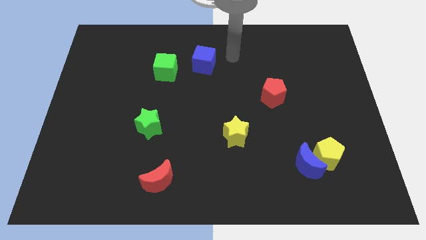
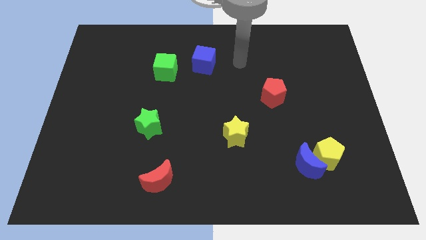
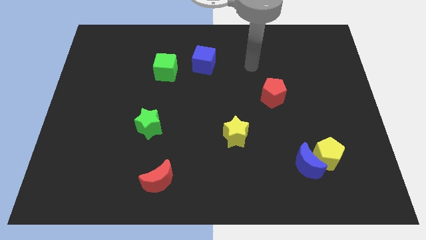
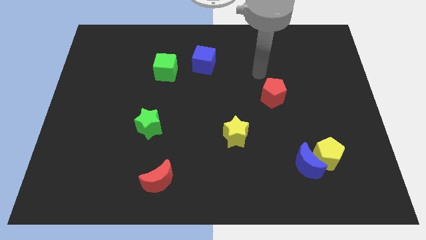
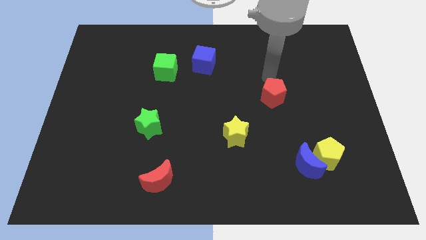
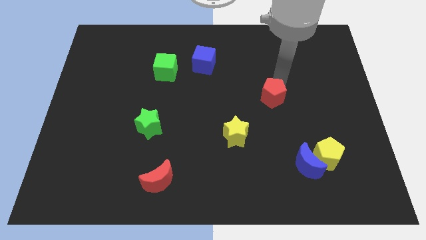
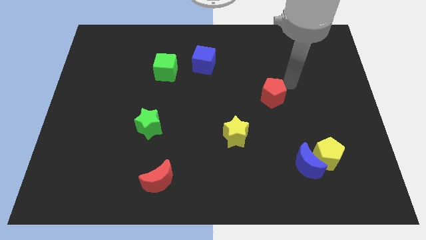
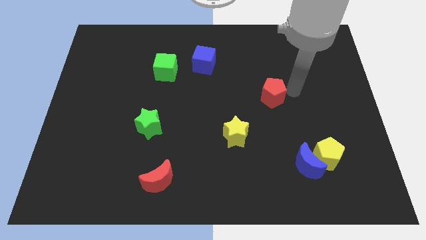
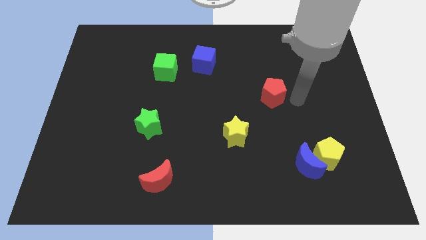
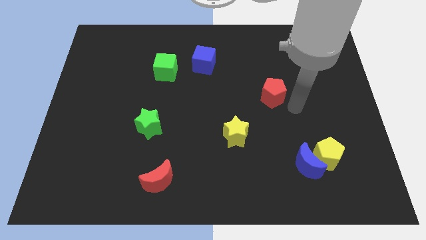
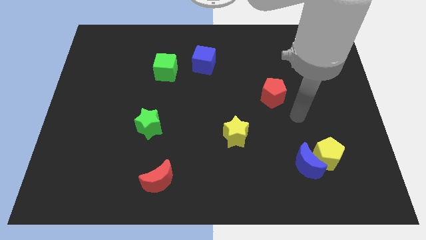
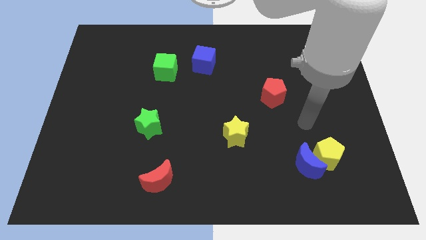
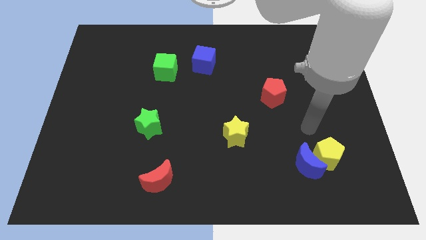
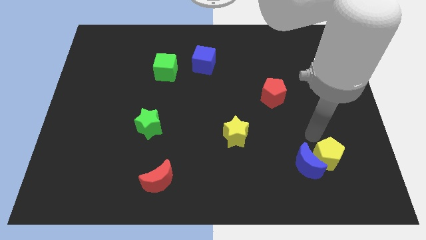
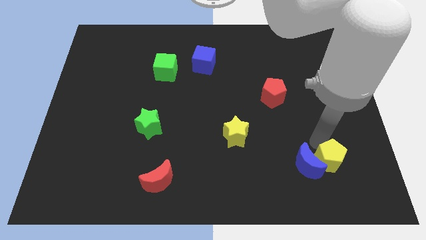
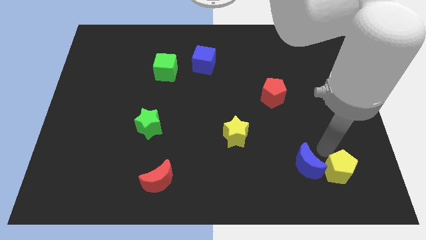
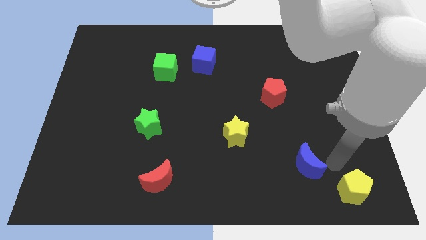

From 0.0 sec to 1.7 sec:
separate the blue moon from the yellow pentagon

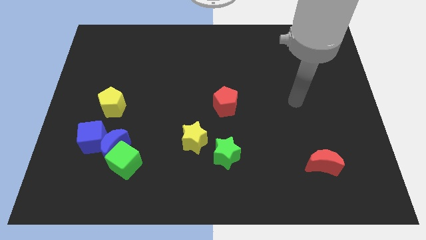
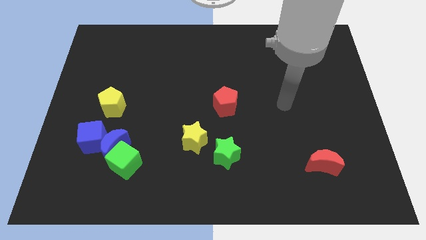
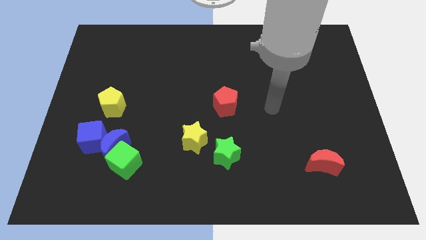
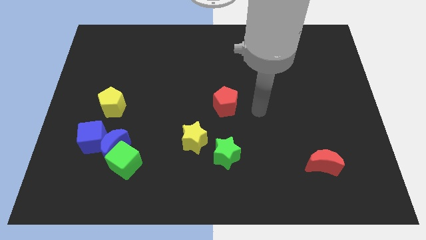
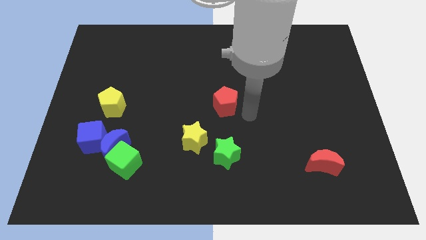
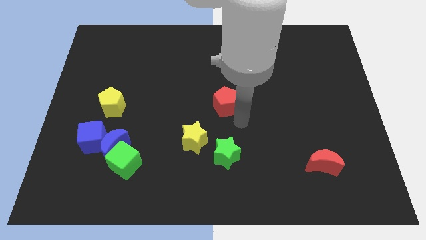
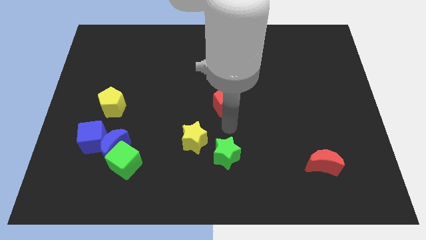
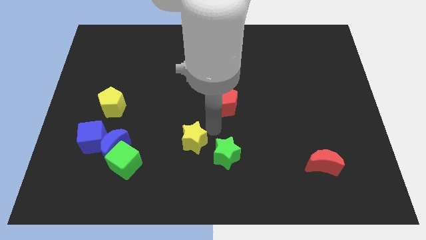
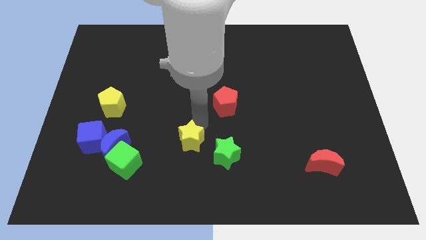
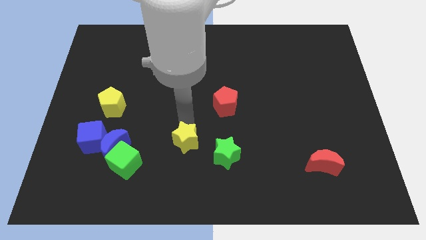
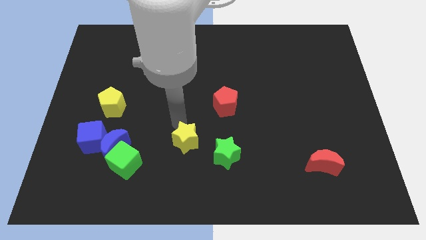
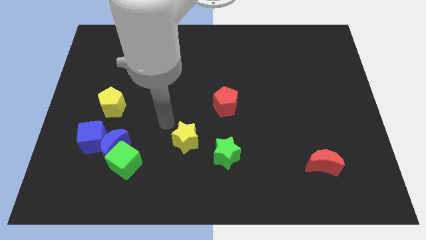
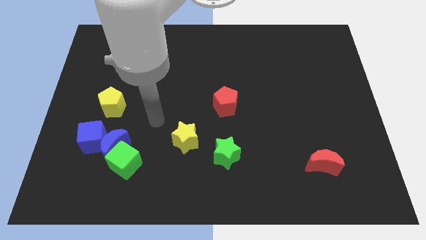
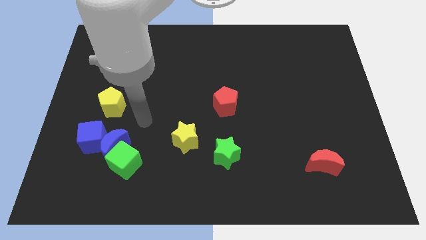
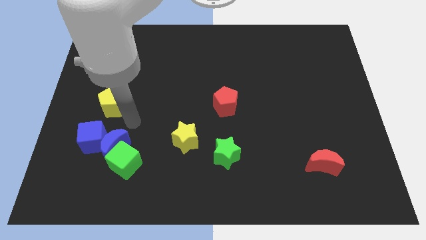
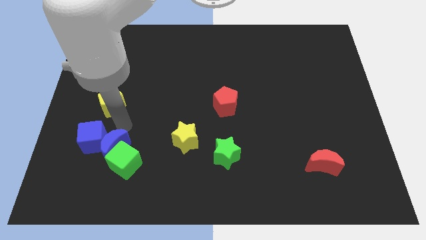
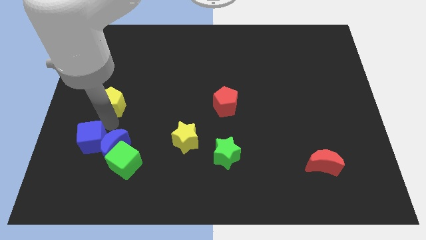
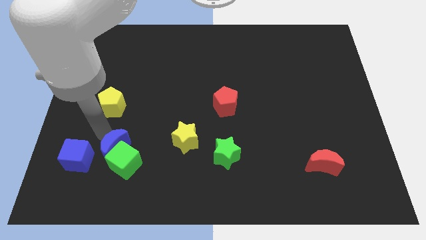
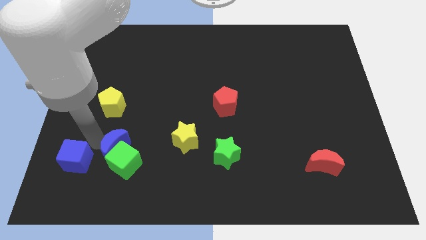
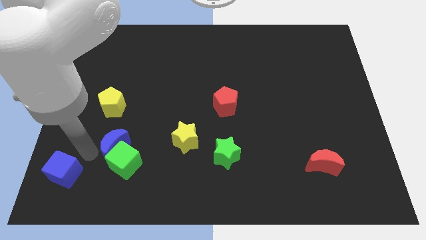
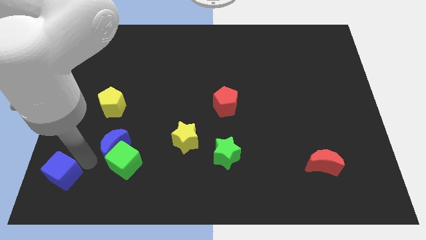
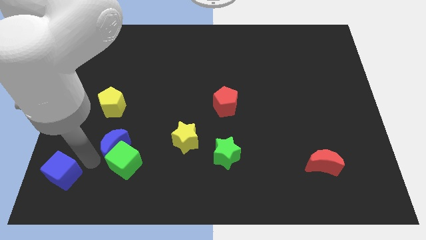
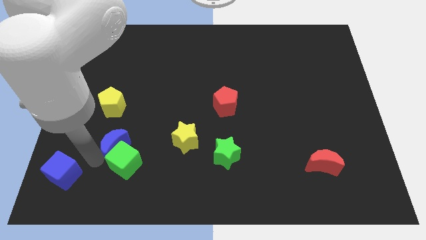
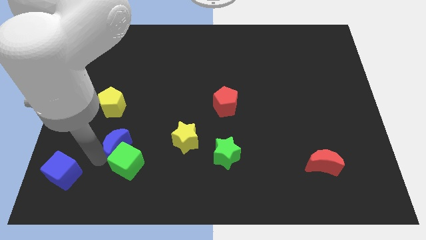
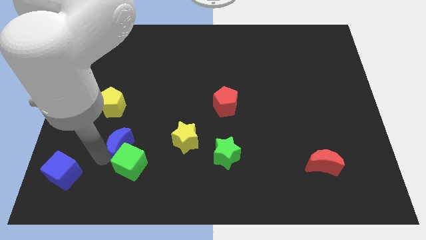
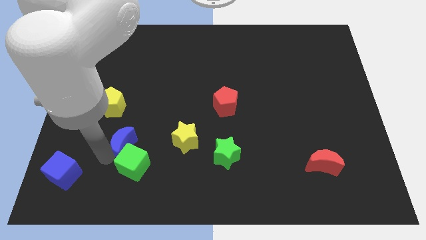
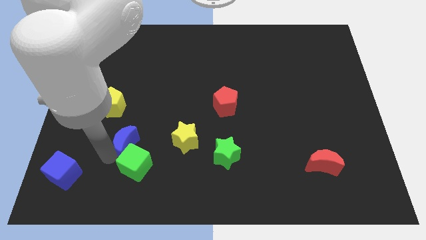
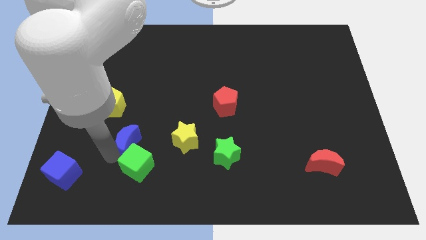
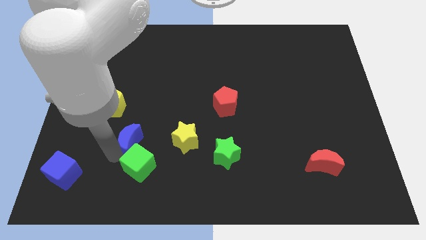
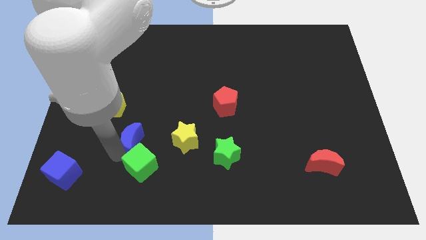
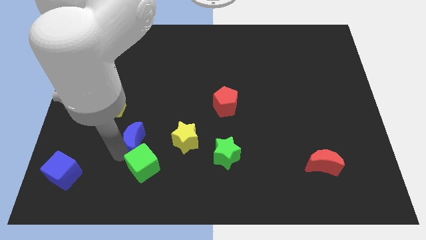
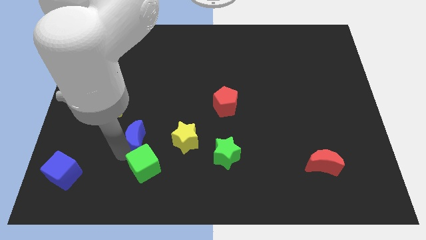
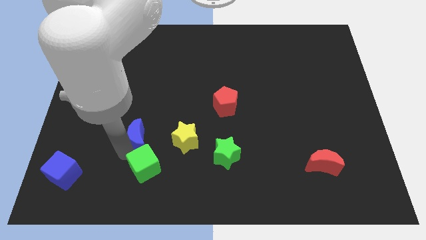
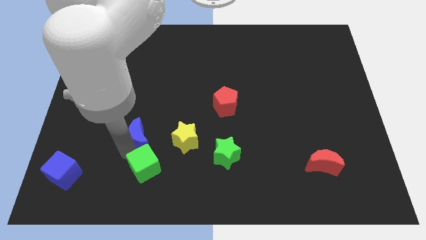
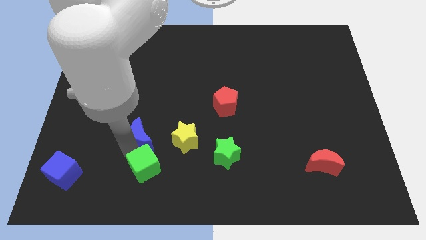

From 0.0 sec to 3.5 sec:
separate the blue moon from the green cube and blue cube

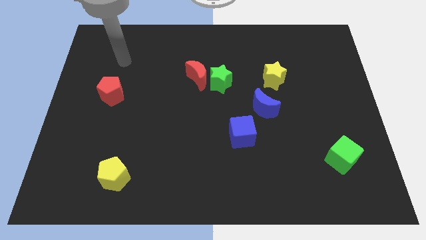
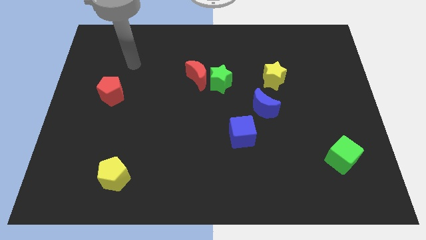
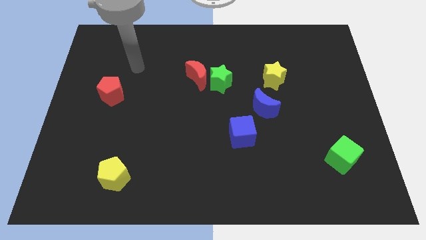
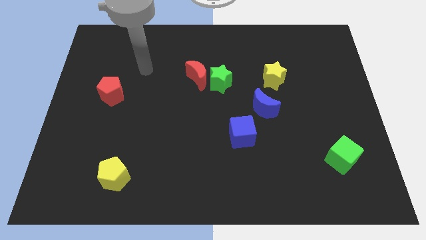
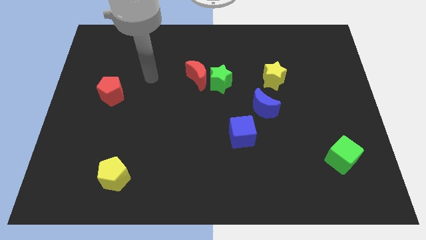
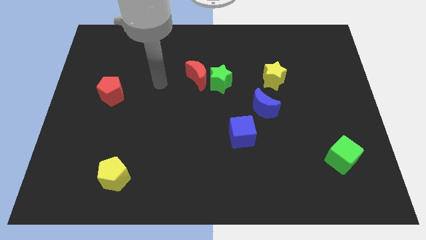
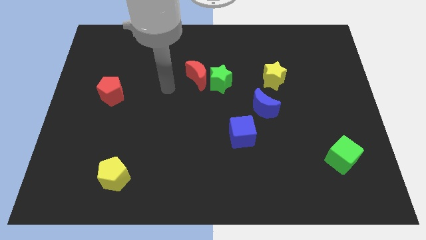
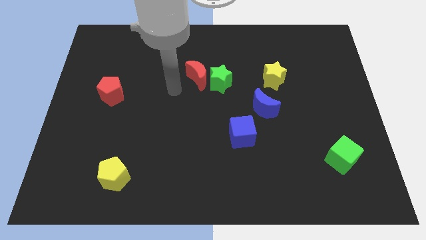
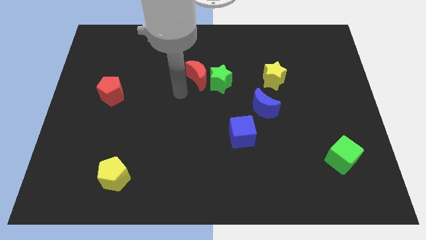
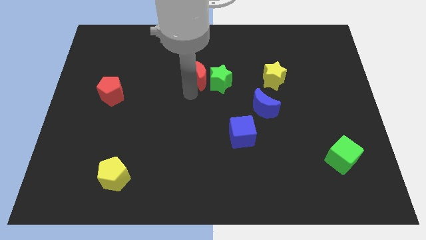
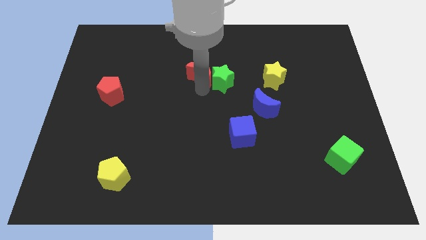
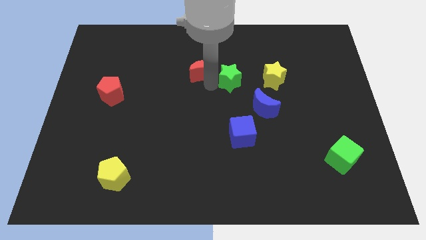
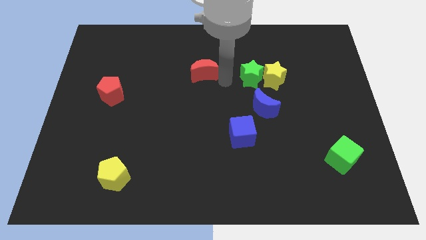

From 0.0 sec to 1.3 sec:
separate the red moon from the green star

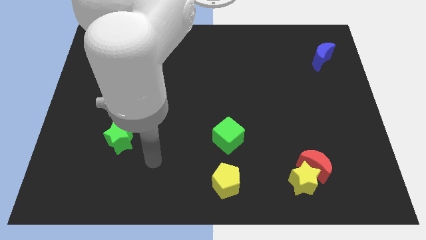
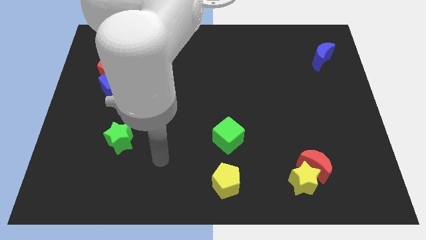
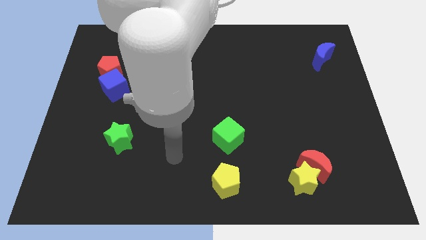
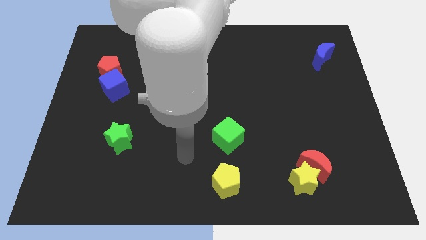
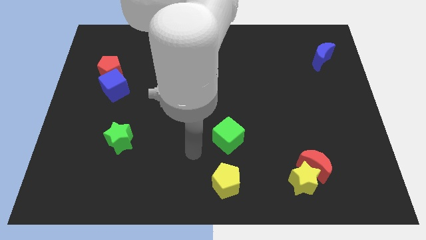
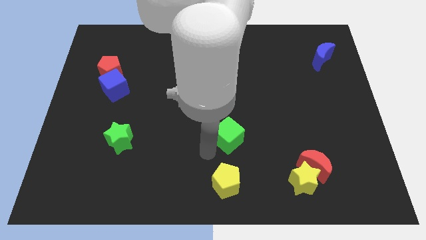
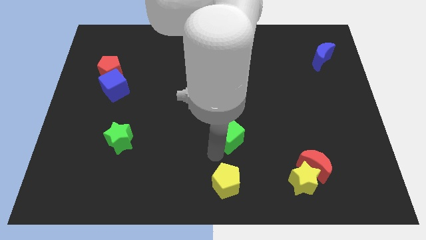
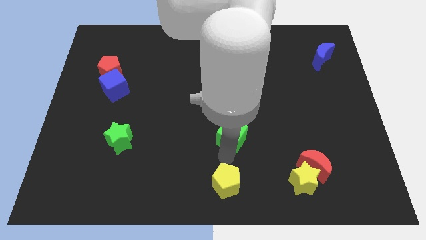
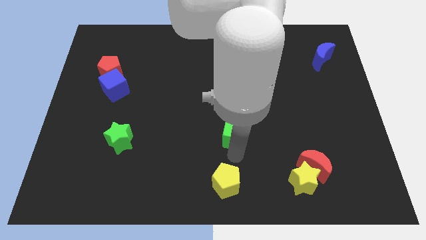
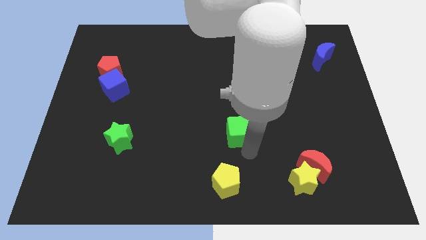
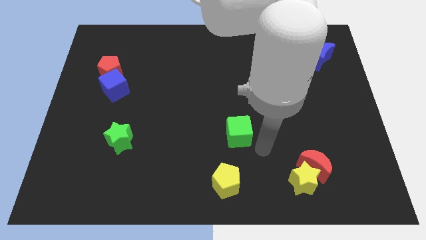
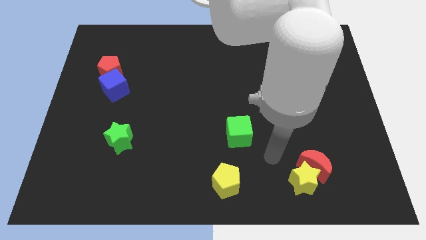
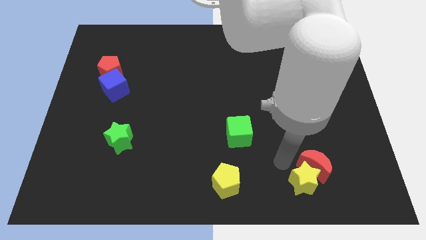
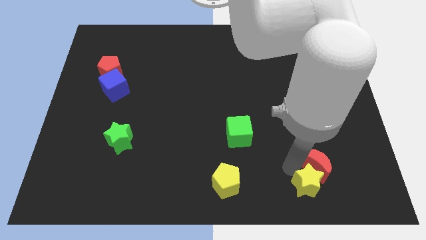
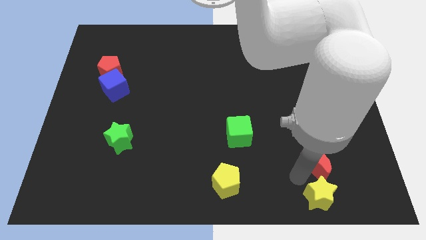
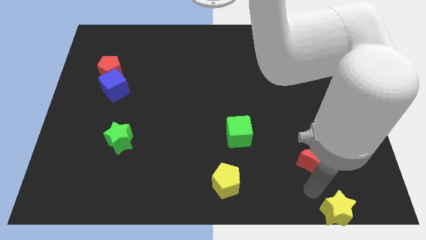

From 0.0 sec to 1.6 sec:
separate the red moon from the yellow star

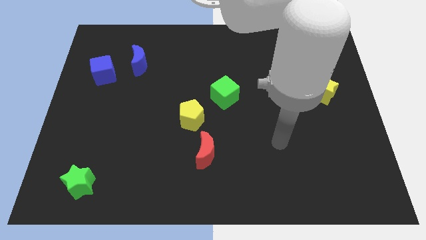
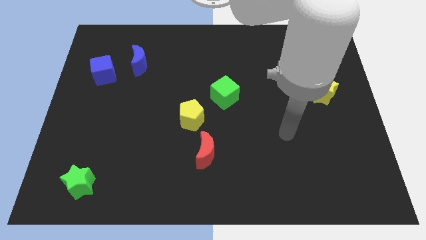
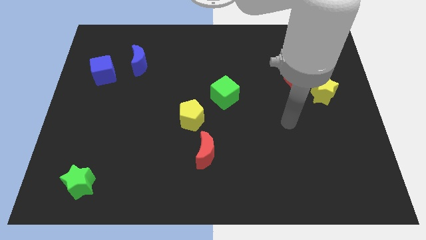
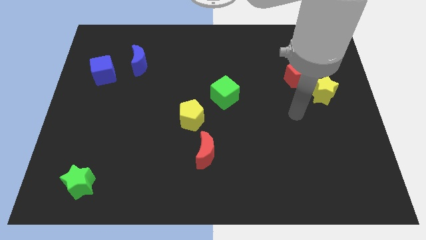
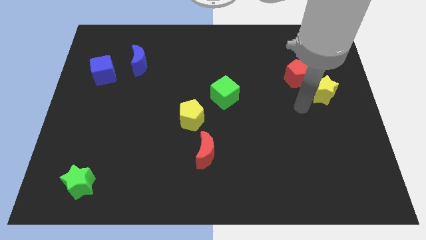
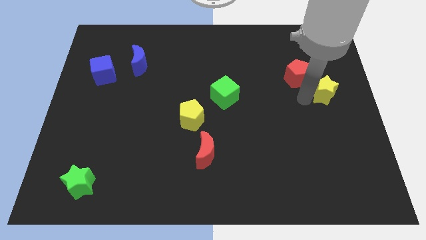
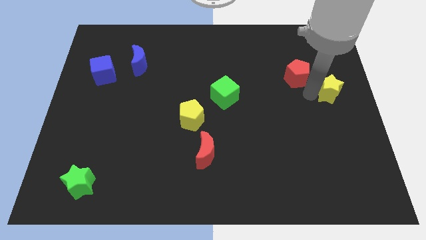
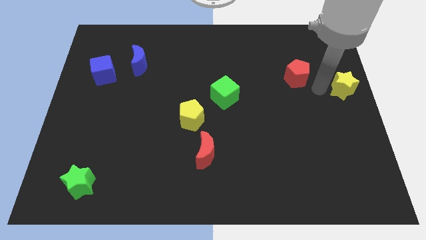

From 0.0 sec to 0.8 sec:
move the red pentagon away from the yellow star

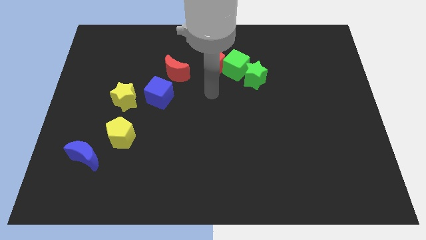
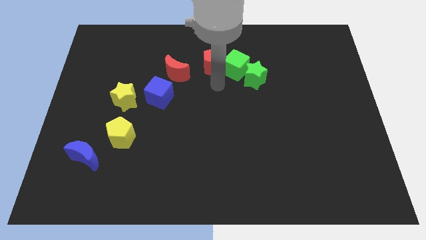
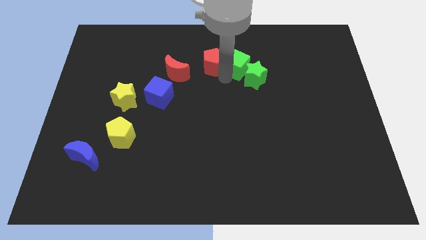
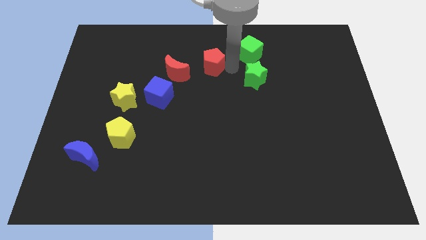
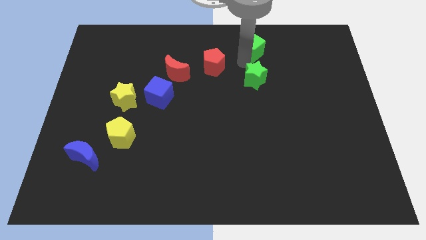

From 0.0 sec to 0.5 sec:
move the green star away from the green cube
